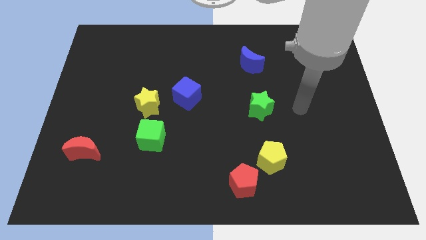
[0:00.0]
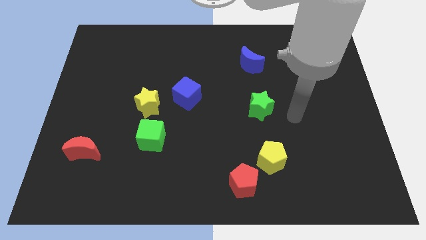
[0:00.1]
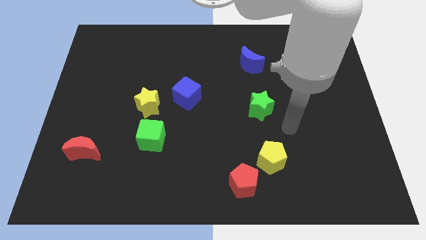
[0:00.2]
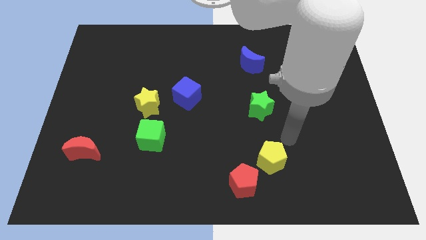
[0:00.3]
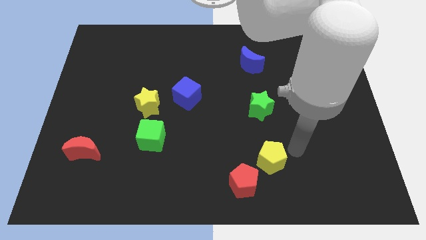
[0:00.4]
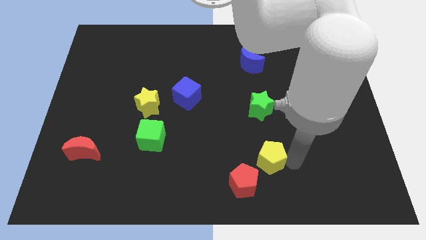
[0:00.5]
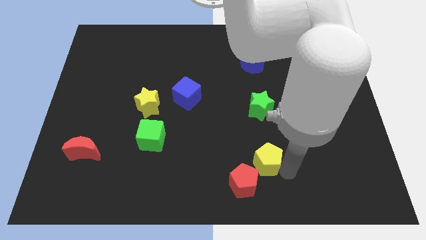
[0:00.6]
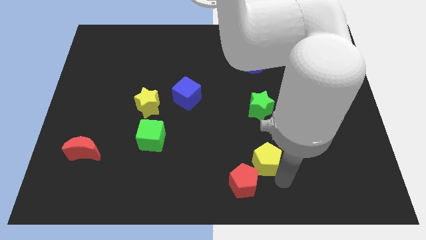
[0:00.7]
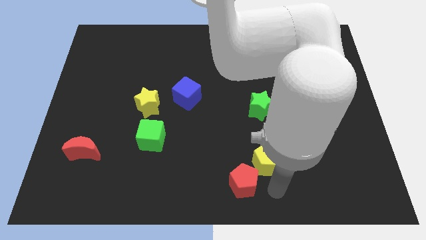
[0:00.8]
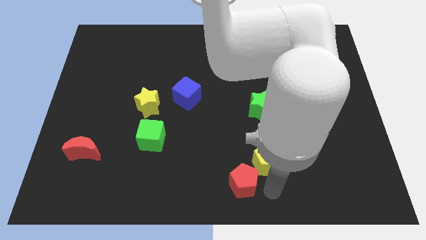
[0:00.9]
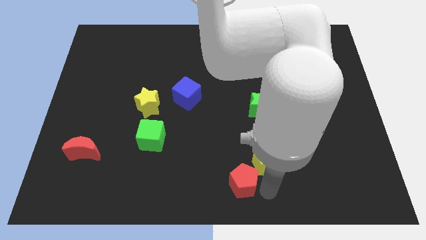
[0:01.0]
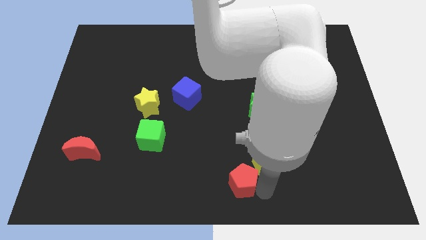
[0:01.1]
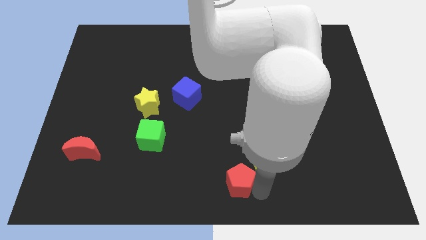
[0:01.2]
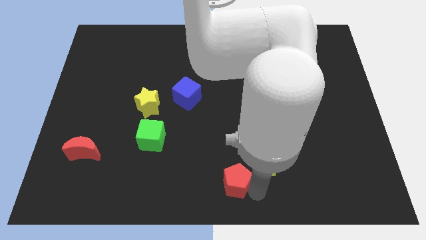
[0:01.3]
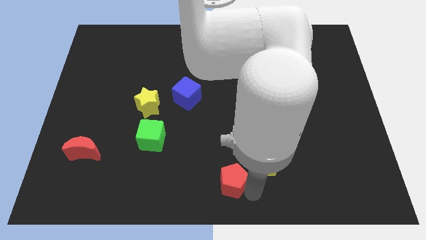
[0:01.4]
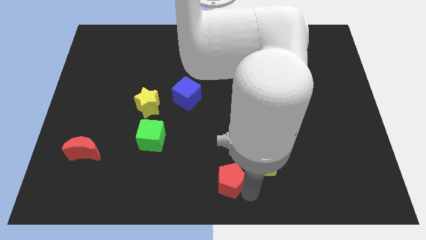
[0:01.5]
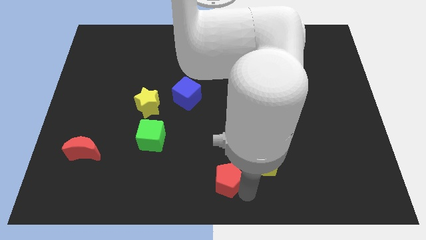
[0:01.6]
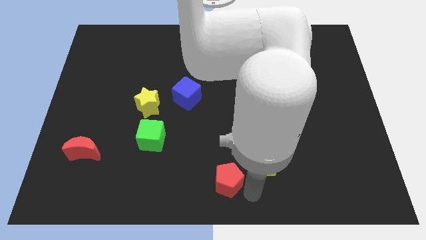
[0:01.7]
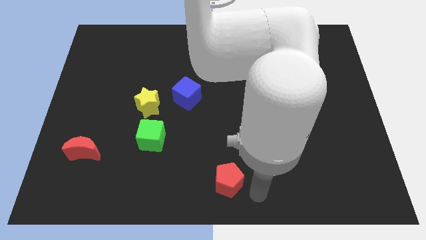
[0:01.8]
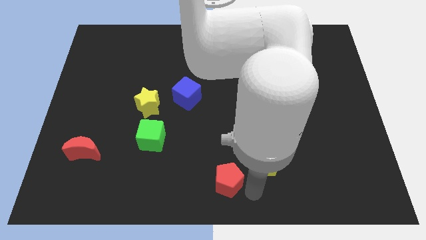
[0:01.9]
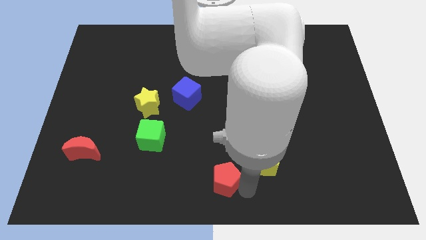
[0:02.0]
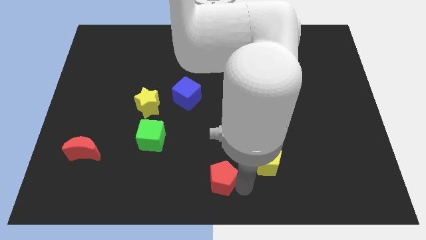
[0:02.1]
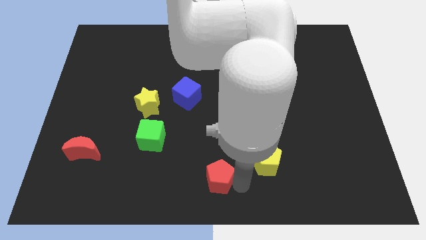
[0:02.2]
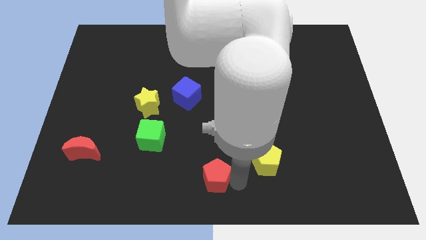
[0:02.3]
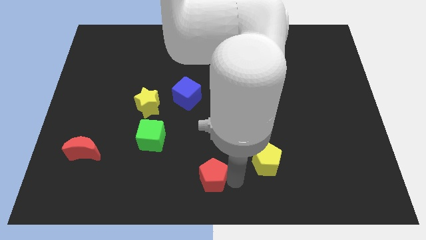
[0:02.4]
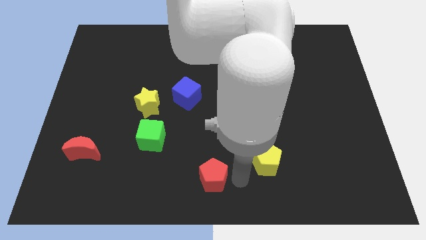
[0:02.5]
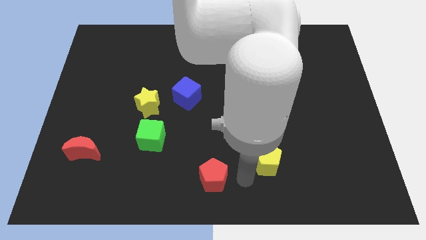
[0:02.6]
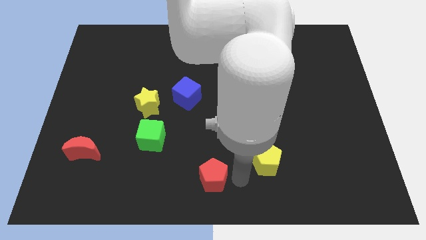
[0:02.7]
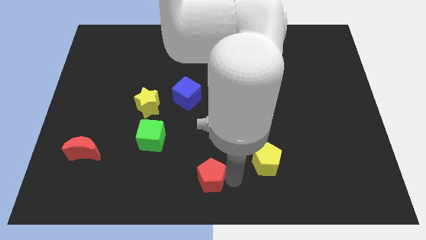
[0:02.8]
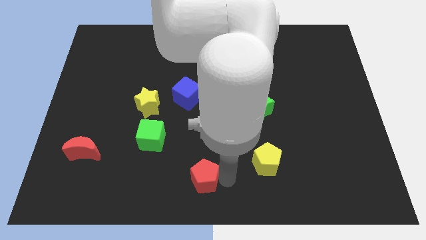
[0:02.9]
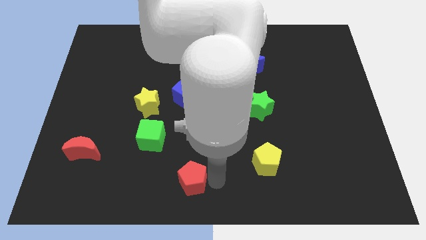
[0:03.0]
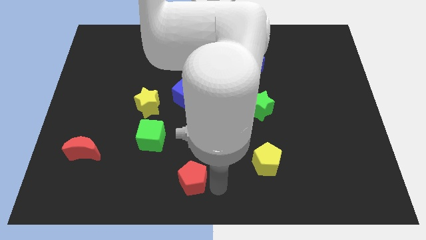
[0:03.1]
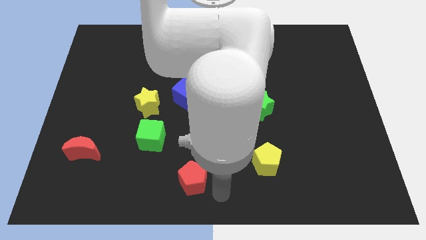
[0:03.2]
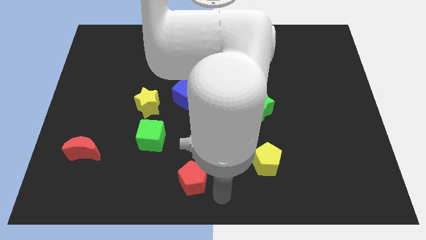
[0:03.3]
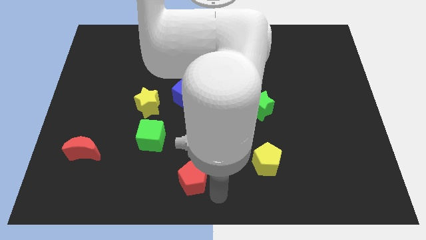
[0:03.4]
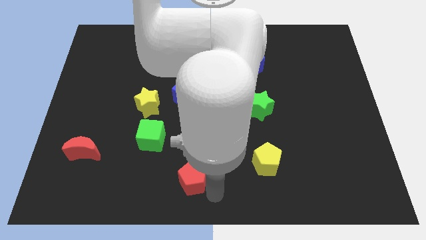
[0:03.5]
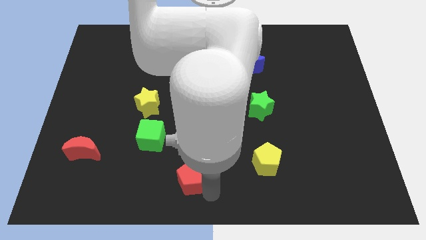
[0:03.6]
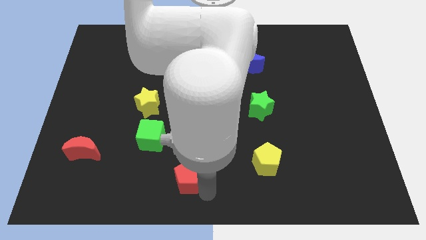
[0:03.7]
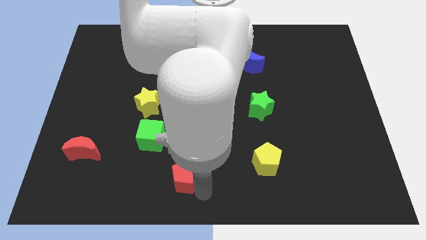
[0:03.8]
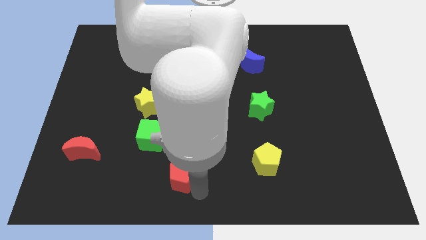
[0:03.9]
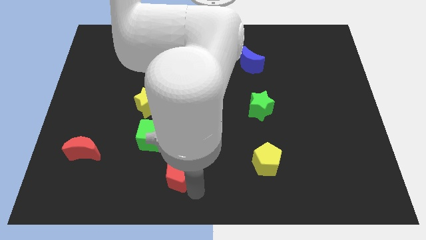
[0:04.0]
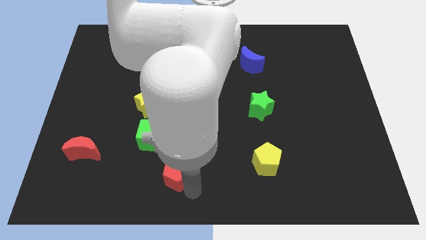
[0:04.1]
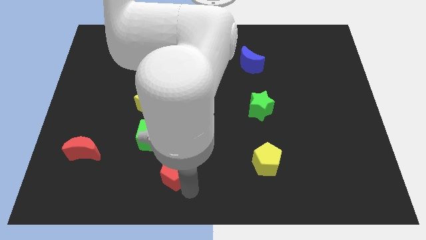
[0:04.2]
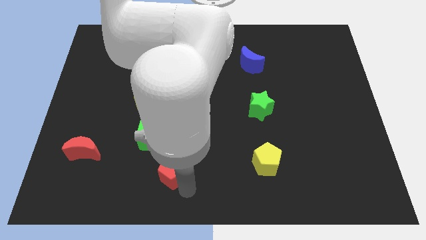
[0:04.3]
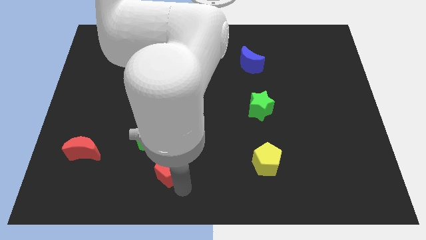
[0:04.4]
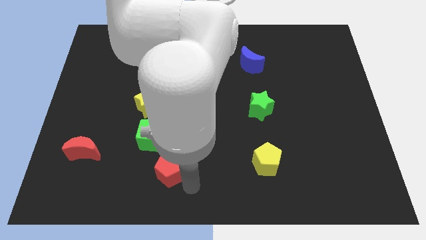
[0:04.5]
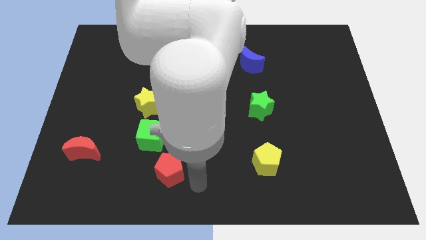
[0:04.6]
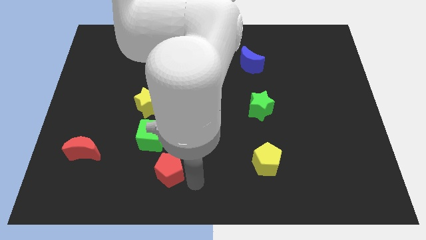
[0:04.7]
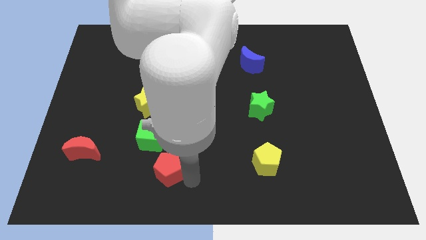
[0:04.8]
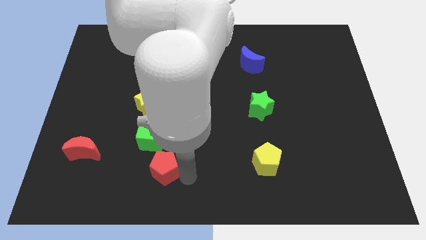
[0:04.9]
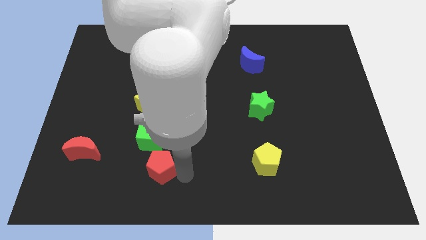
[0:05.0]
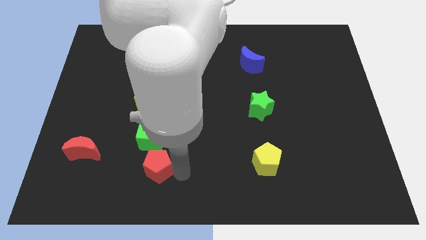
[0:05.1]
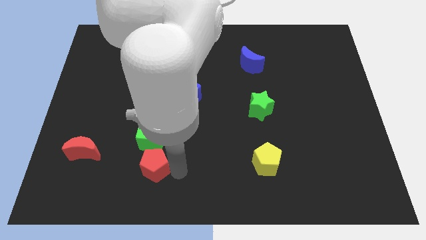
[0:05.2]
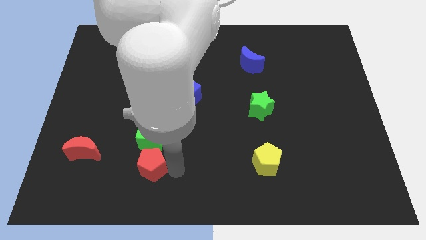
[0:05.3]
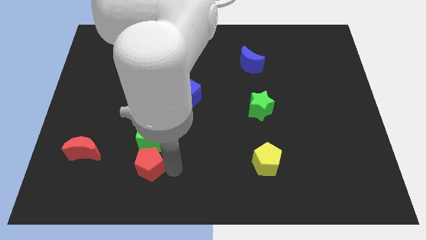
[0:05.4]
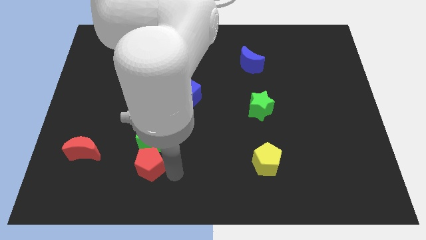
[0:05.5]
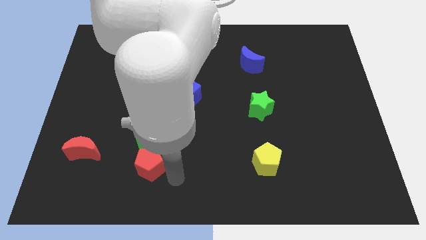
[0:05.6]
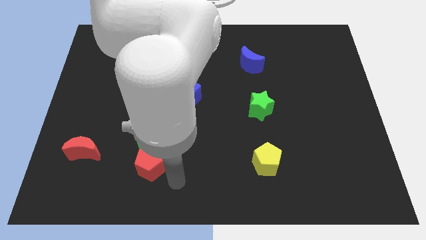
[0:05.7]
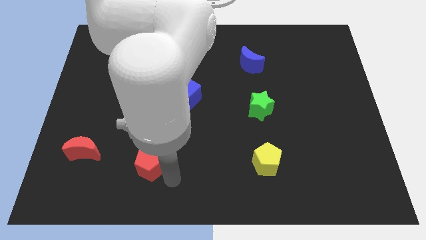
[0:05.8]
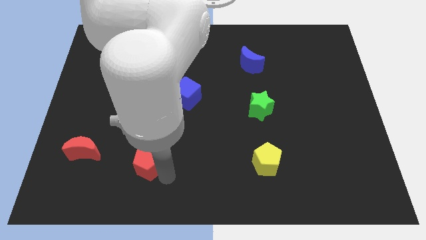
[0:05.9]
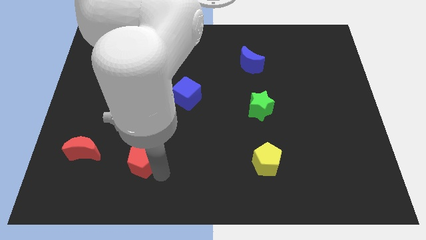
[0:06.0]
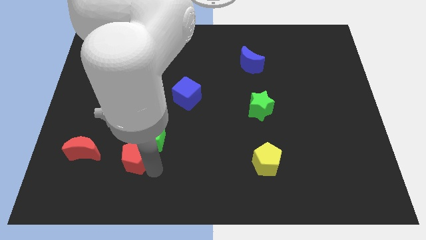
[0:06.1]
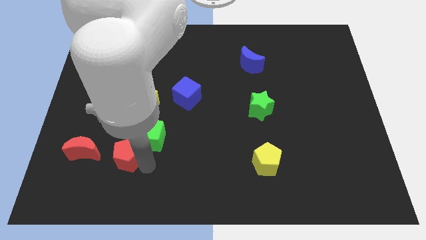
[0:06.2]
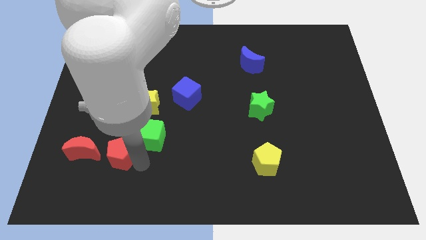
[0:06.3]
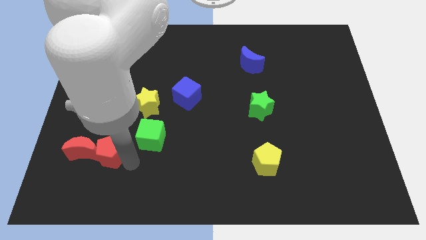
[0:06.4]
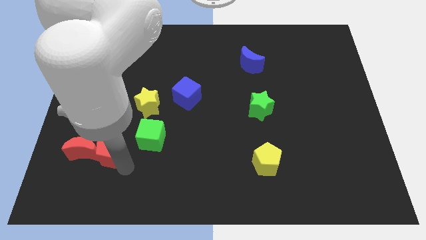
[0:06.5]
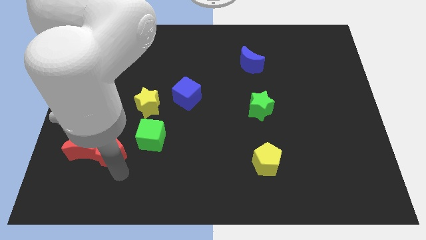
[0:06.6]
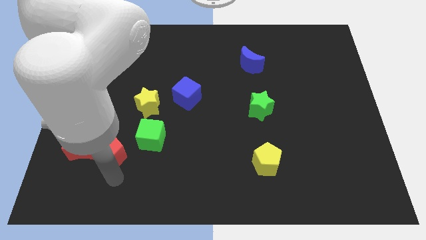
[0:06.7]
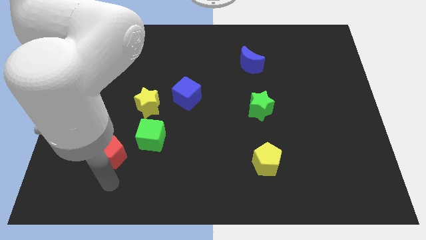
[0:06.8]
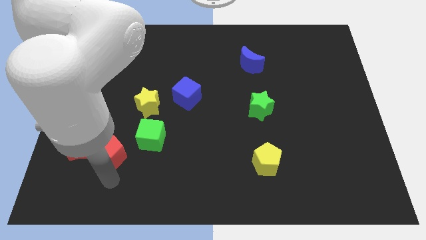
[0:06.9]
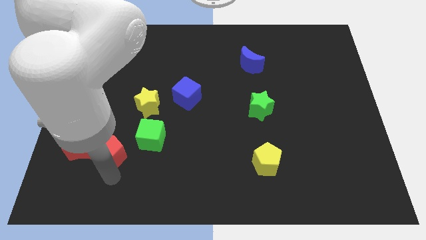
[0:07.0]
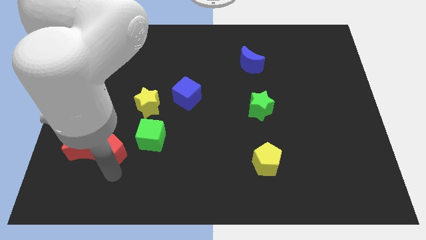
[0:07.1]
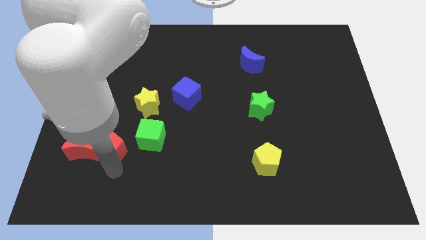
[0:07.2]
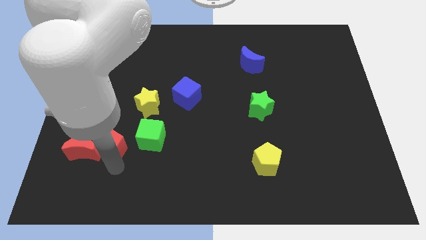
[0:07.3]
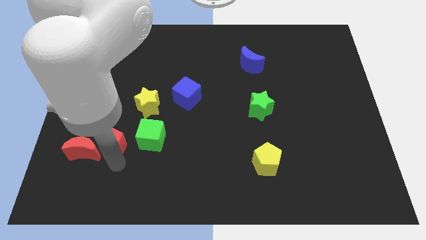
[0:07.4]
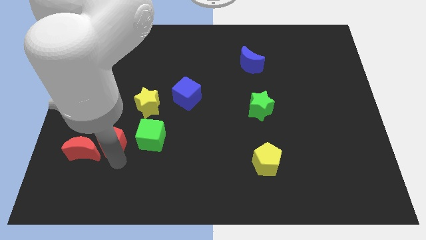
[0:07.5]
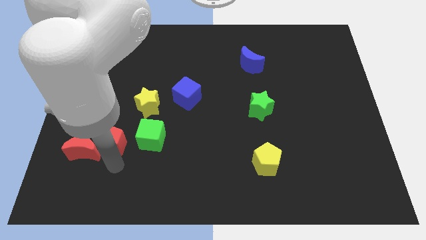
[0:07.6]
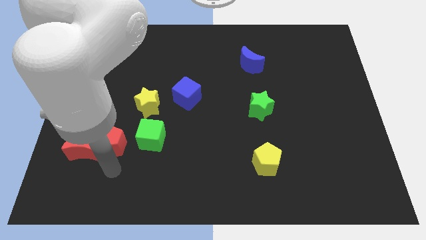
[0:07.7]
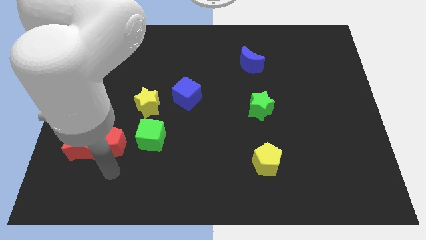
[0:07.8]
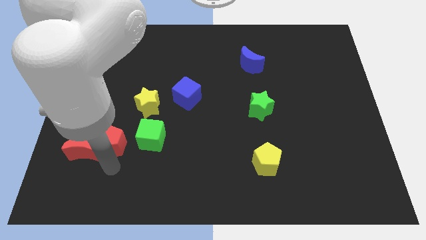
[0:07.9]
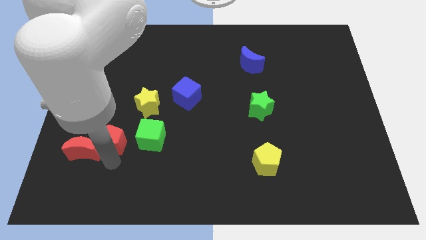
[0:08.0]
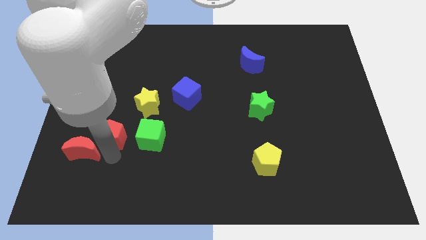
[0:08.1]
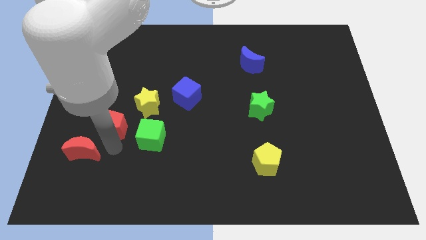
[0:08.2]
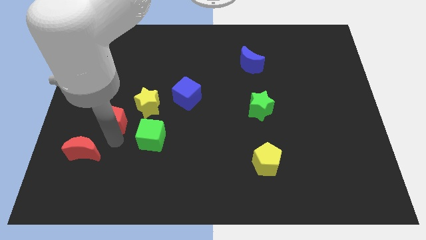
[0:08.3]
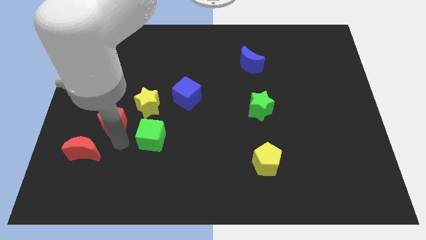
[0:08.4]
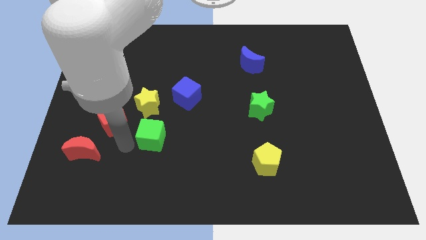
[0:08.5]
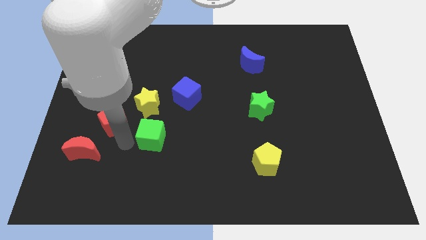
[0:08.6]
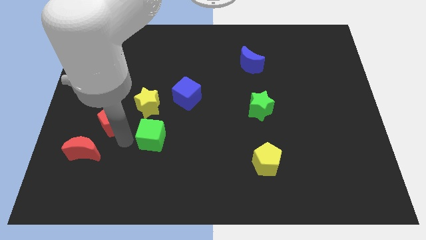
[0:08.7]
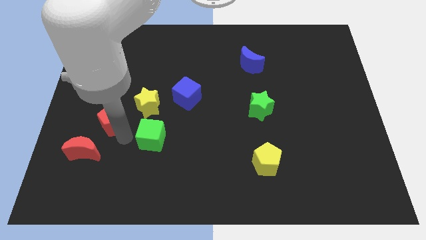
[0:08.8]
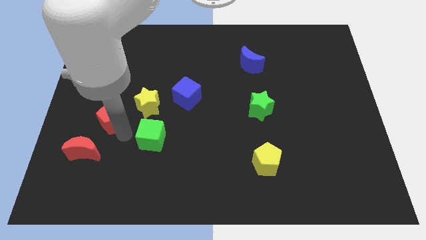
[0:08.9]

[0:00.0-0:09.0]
move the red pentagon to the left of the yellow star
